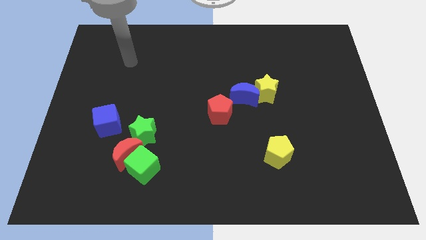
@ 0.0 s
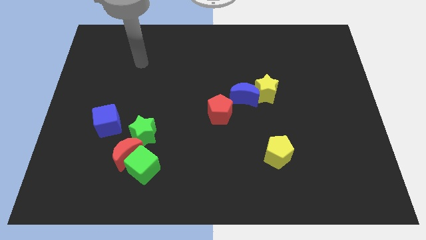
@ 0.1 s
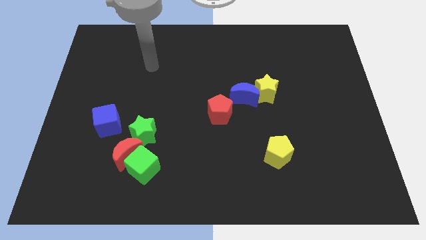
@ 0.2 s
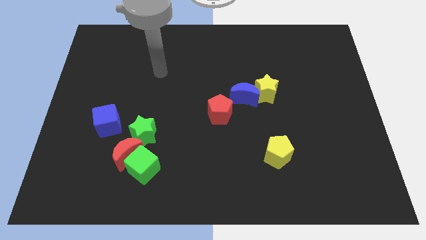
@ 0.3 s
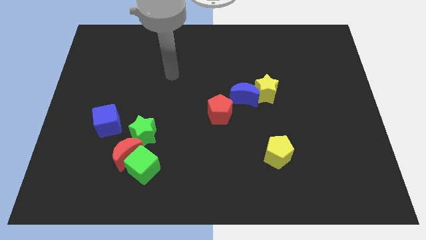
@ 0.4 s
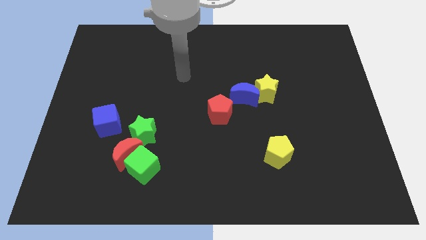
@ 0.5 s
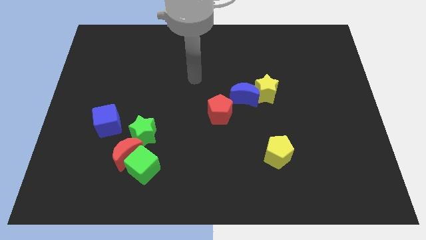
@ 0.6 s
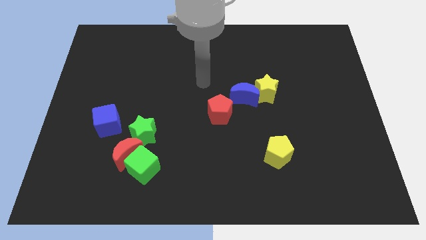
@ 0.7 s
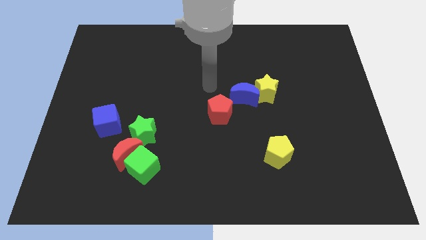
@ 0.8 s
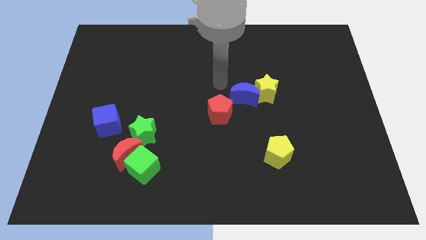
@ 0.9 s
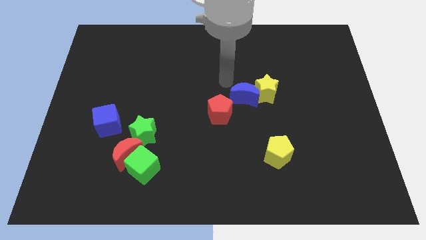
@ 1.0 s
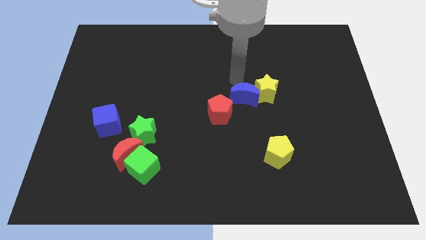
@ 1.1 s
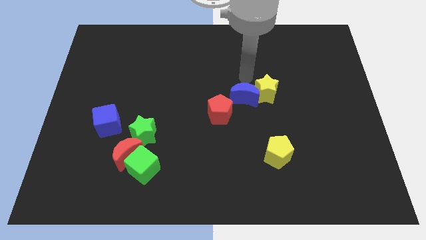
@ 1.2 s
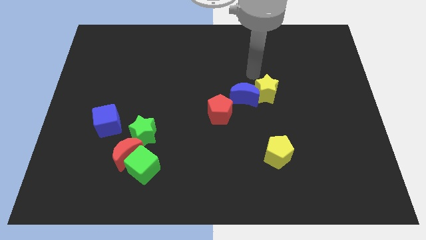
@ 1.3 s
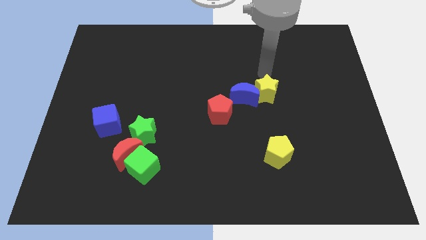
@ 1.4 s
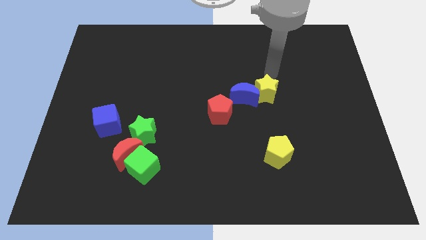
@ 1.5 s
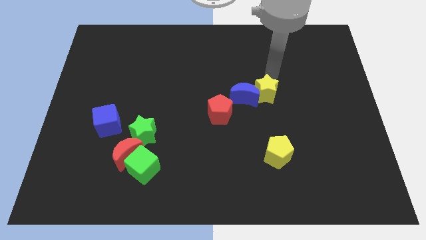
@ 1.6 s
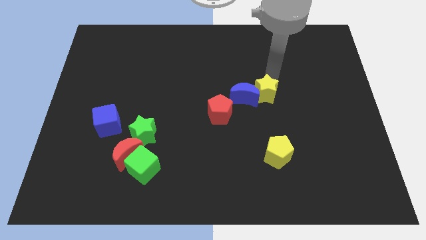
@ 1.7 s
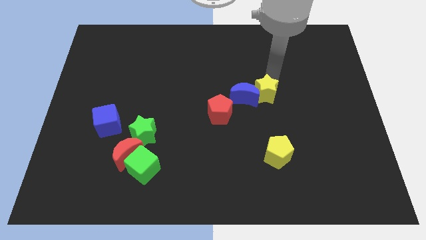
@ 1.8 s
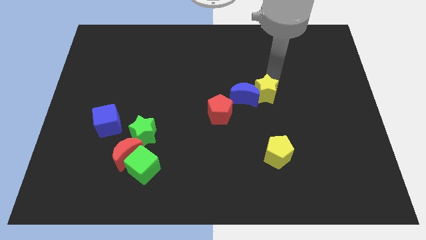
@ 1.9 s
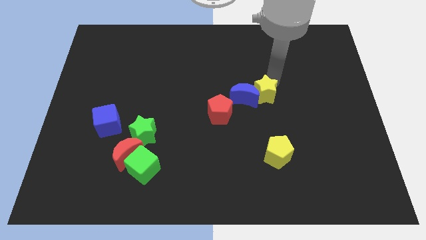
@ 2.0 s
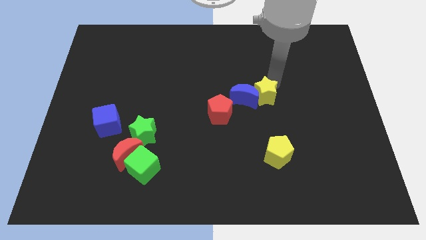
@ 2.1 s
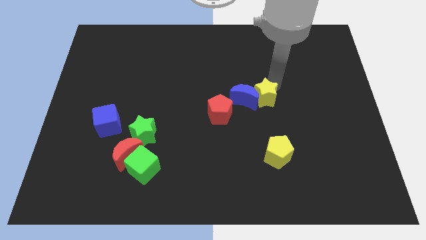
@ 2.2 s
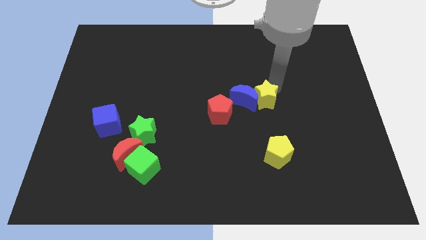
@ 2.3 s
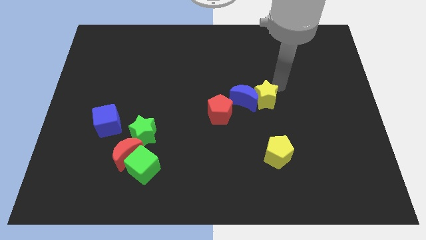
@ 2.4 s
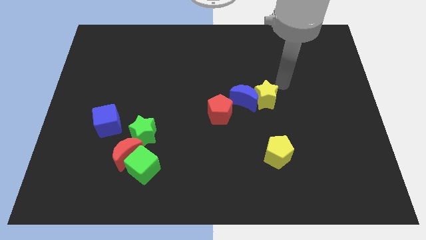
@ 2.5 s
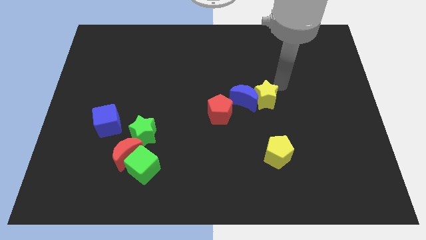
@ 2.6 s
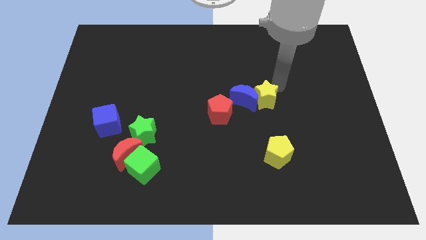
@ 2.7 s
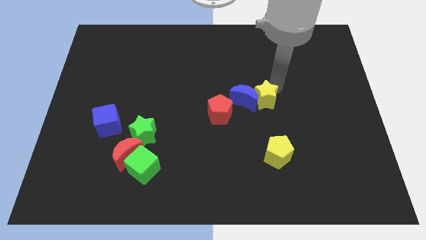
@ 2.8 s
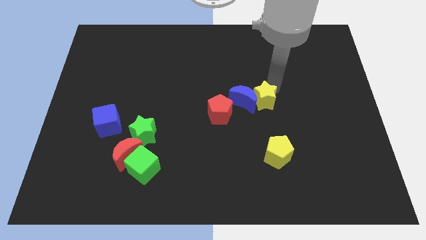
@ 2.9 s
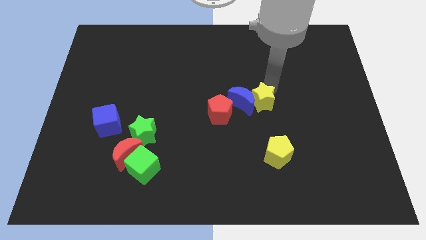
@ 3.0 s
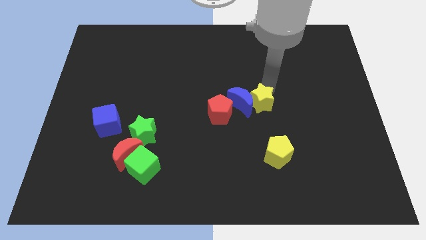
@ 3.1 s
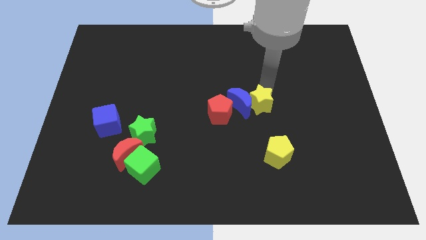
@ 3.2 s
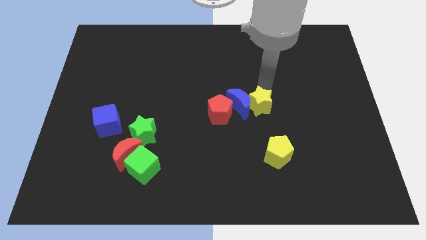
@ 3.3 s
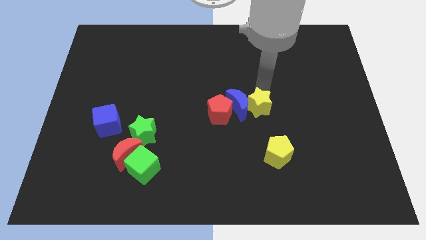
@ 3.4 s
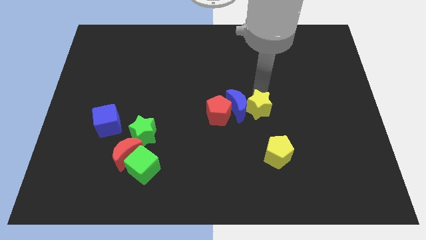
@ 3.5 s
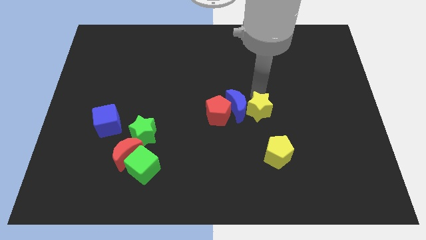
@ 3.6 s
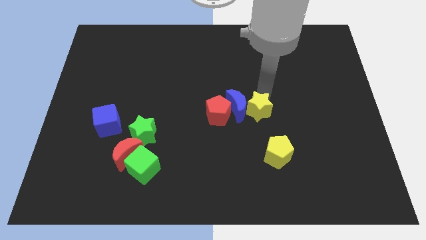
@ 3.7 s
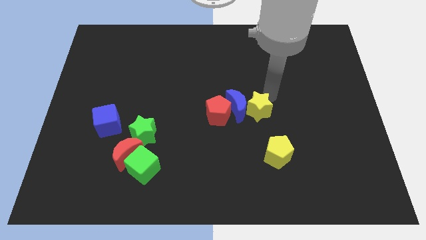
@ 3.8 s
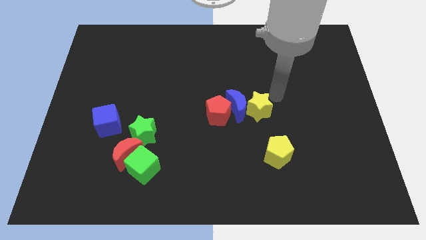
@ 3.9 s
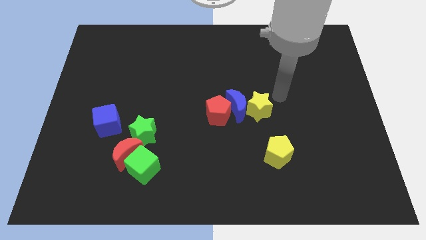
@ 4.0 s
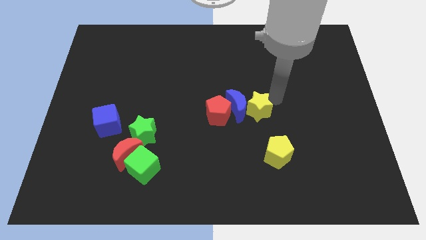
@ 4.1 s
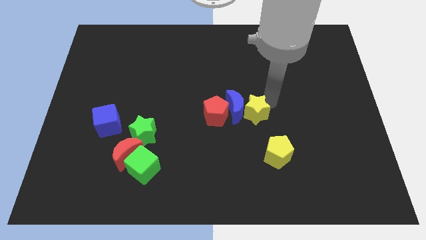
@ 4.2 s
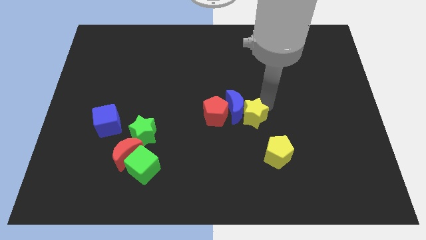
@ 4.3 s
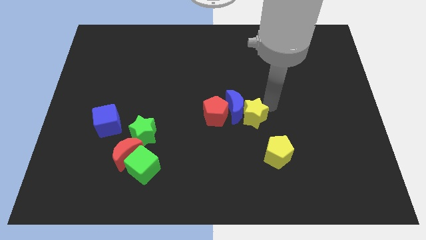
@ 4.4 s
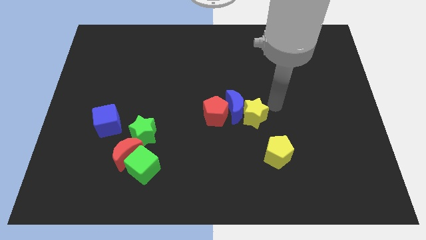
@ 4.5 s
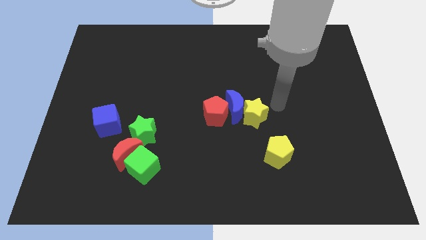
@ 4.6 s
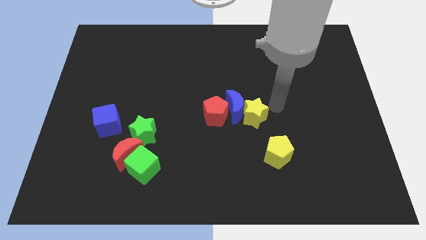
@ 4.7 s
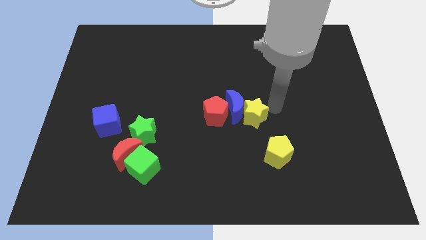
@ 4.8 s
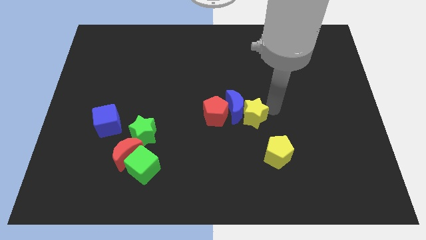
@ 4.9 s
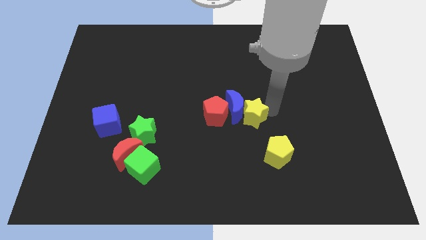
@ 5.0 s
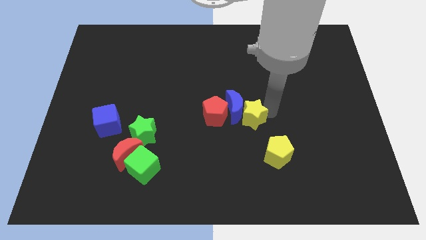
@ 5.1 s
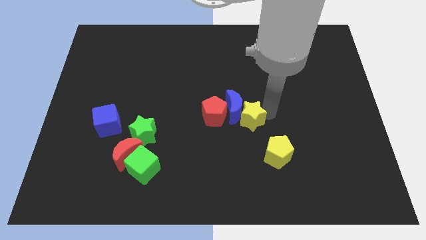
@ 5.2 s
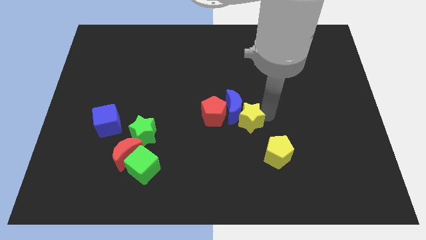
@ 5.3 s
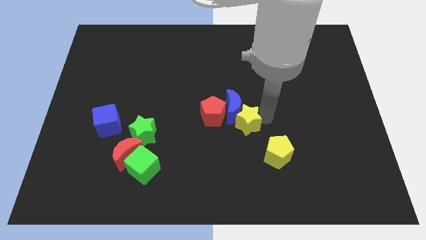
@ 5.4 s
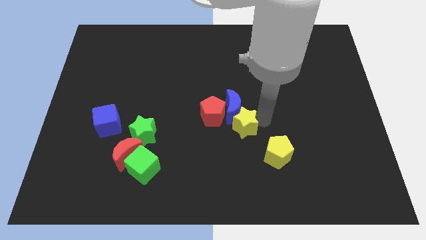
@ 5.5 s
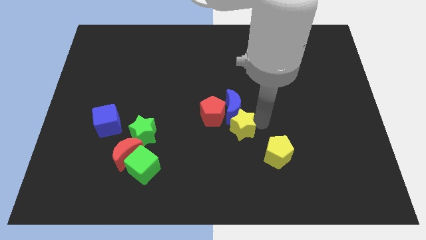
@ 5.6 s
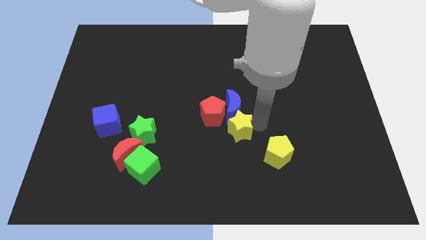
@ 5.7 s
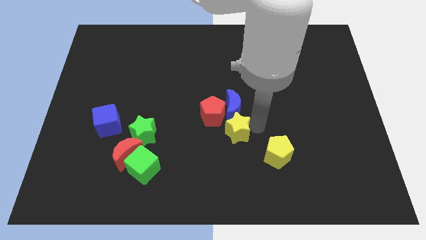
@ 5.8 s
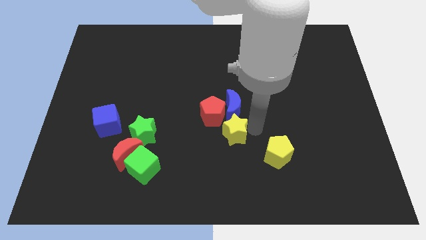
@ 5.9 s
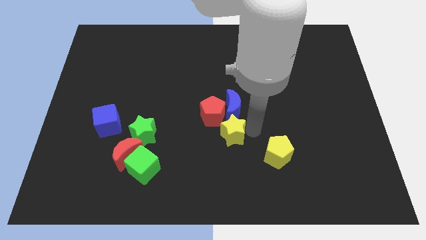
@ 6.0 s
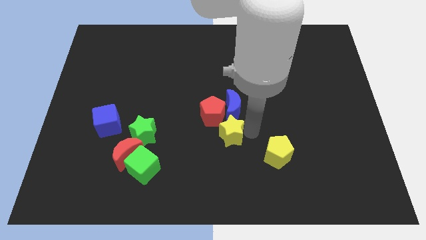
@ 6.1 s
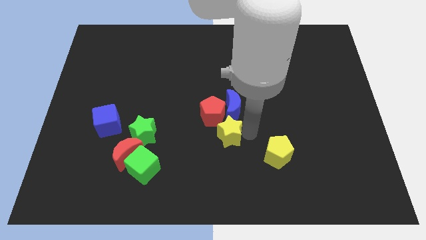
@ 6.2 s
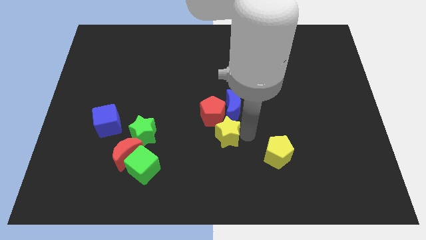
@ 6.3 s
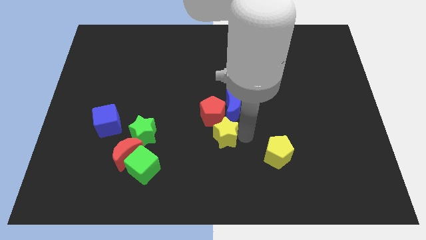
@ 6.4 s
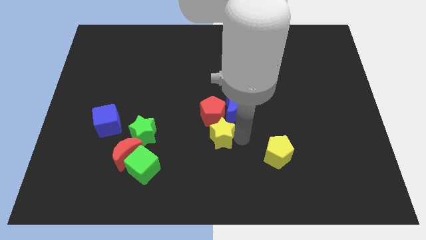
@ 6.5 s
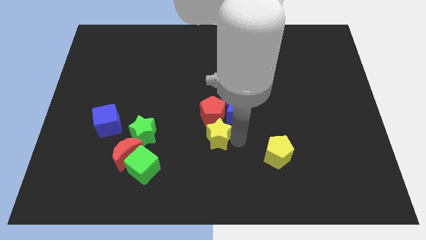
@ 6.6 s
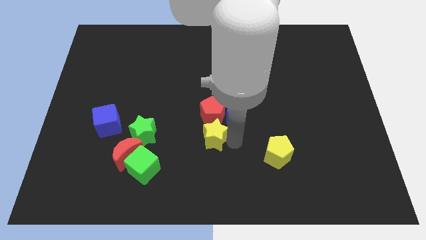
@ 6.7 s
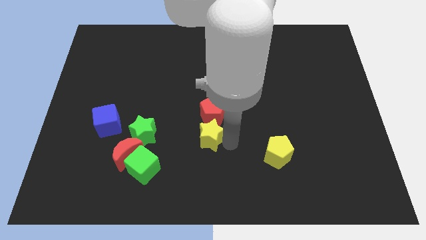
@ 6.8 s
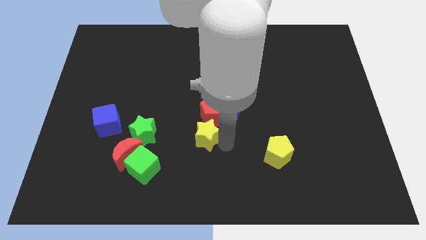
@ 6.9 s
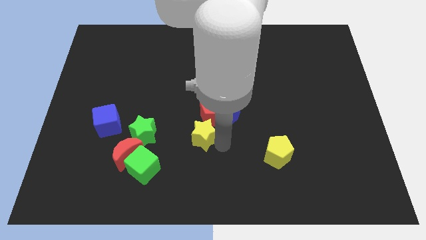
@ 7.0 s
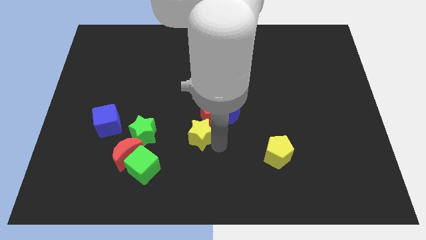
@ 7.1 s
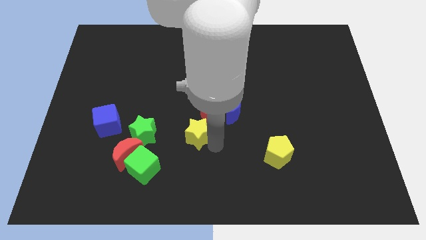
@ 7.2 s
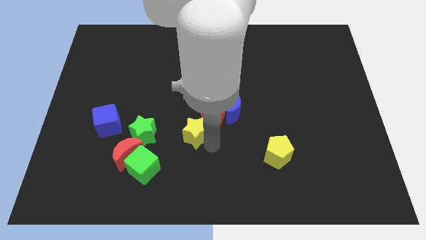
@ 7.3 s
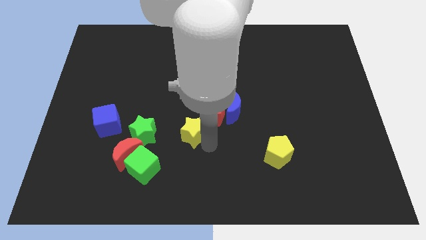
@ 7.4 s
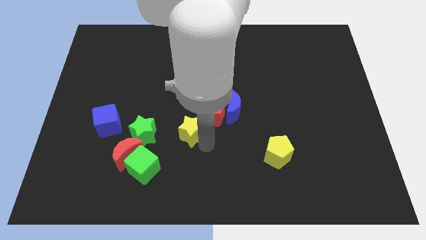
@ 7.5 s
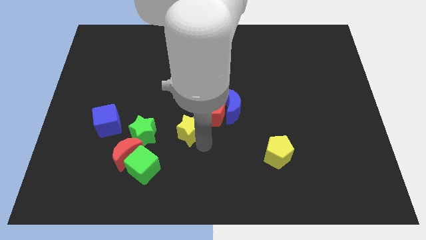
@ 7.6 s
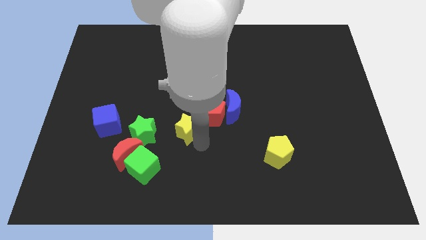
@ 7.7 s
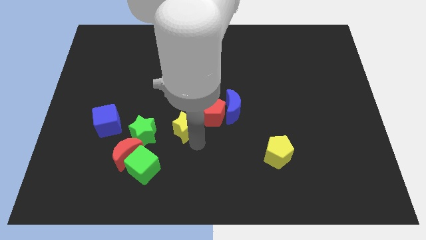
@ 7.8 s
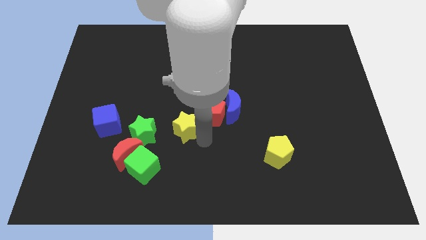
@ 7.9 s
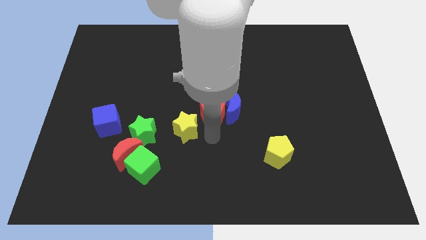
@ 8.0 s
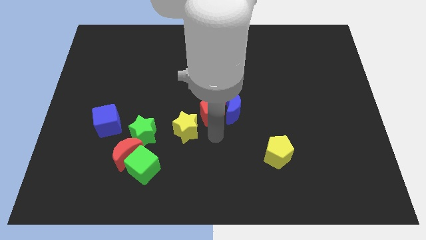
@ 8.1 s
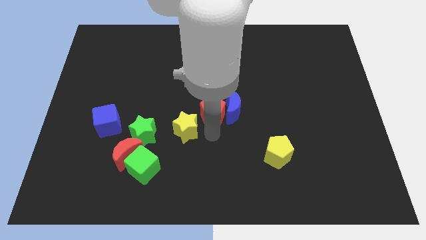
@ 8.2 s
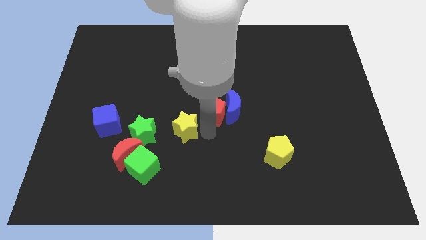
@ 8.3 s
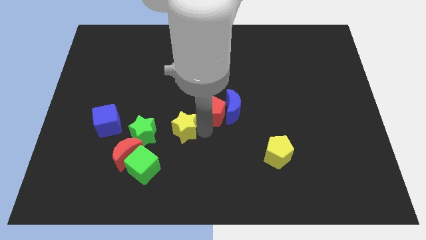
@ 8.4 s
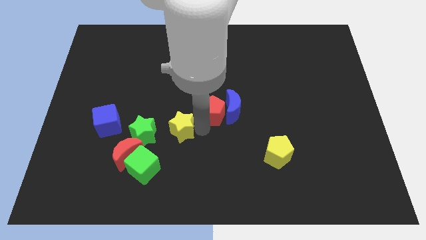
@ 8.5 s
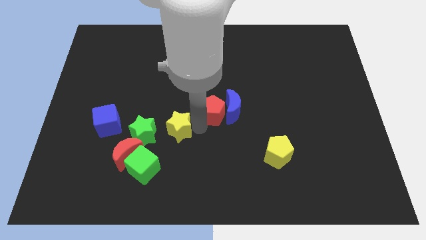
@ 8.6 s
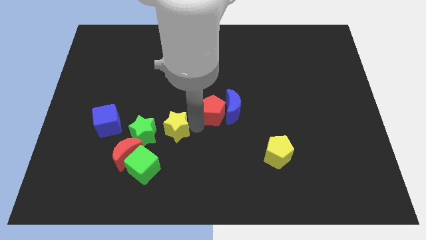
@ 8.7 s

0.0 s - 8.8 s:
put the yellow star to the right side of the blue cube
